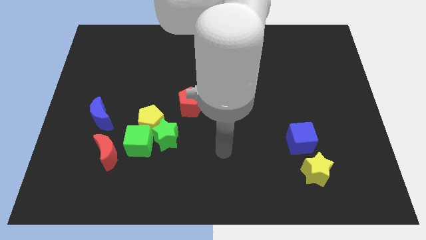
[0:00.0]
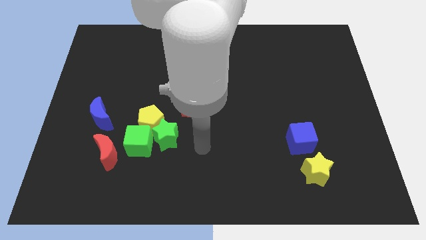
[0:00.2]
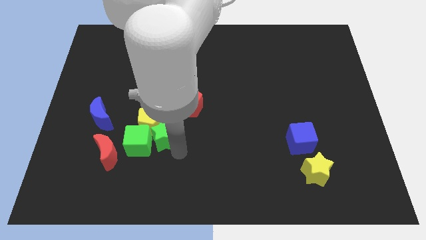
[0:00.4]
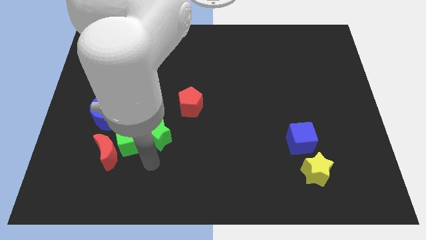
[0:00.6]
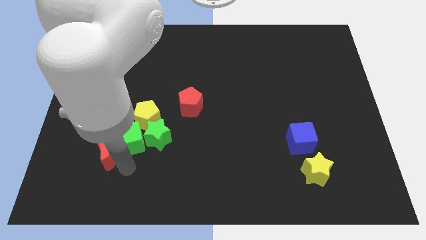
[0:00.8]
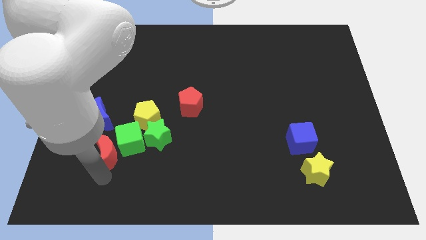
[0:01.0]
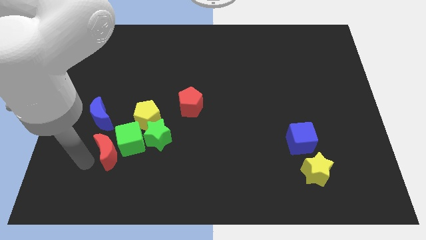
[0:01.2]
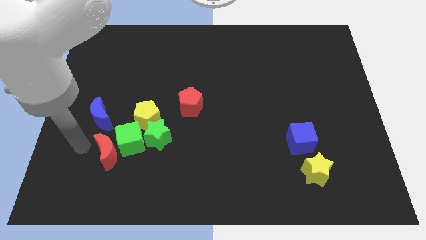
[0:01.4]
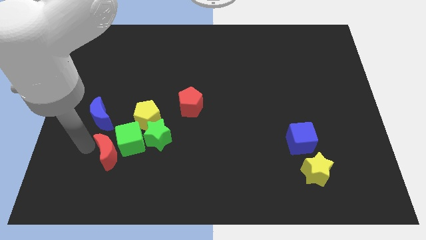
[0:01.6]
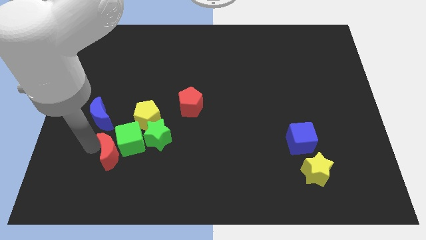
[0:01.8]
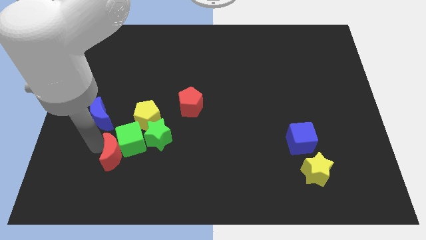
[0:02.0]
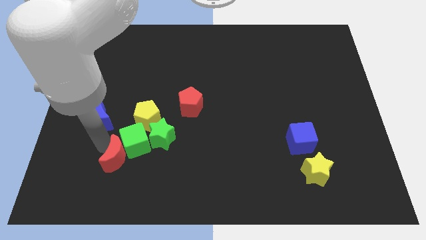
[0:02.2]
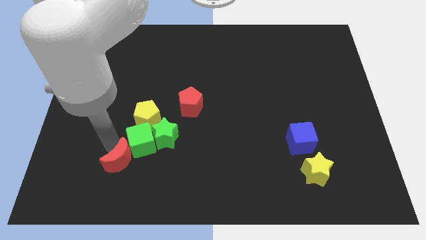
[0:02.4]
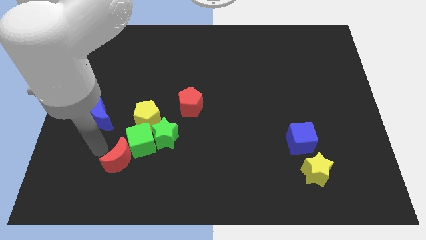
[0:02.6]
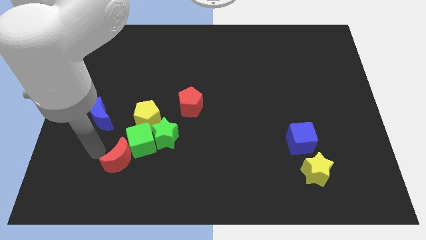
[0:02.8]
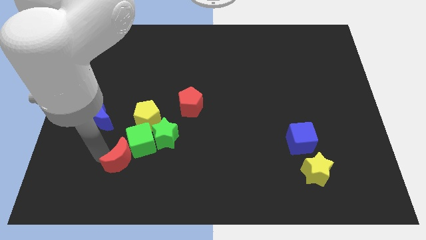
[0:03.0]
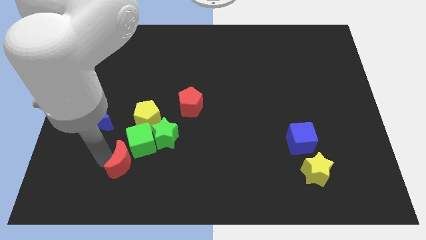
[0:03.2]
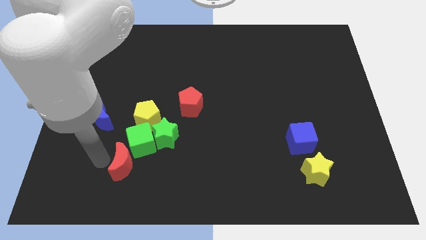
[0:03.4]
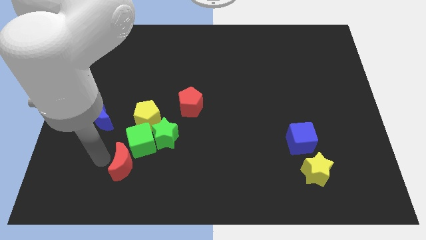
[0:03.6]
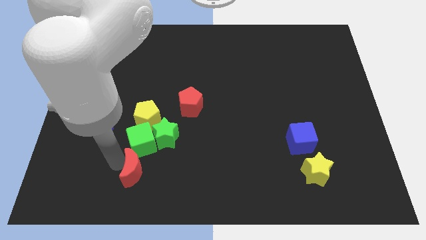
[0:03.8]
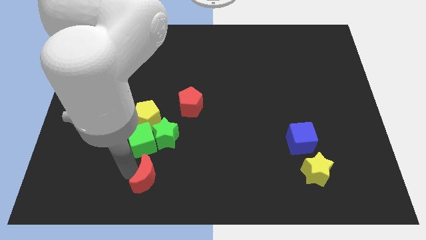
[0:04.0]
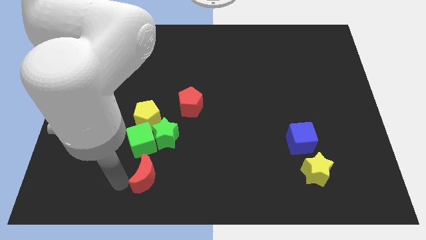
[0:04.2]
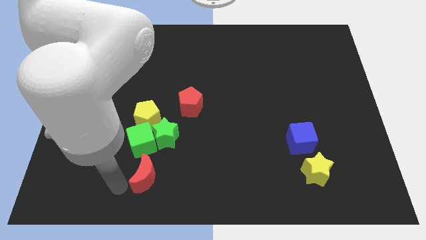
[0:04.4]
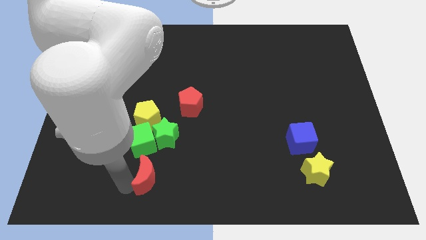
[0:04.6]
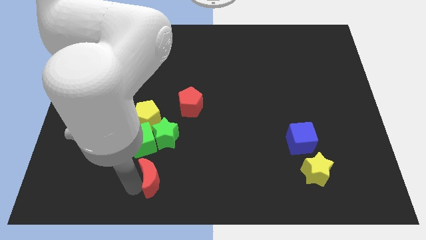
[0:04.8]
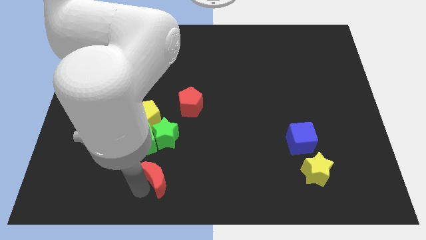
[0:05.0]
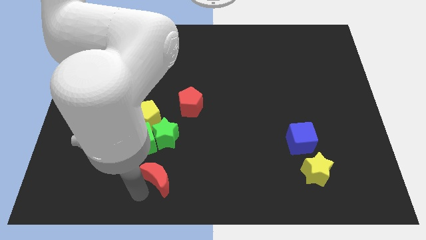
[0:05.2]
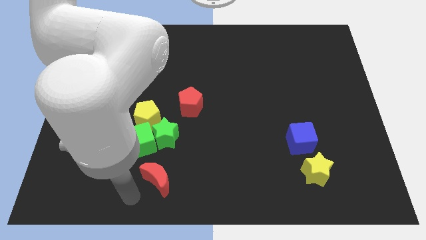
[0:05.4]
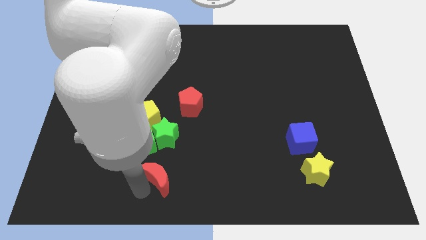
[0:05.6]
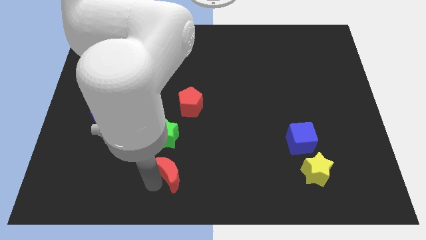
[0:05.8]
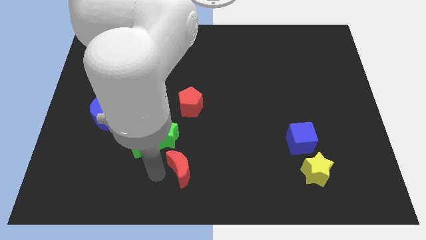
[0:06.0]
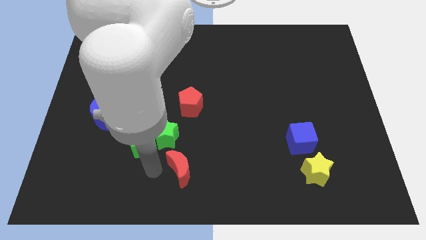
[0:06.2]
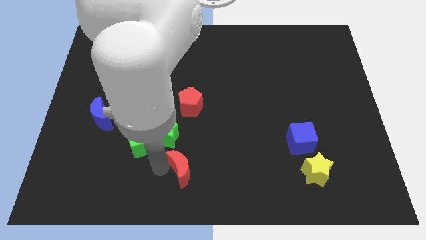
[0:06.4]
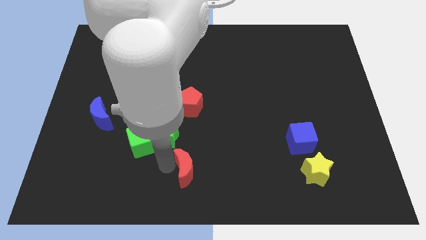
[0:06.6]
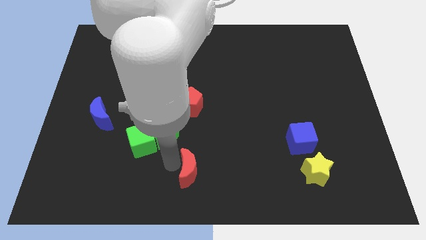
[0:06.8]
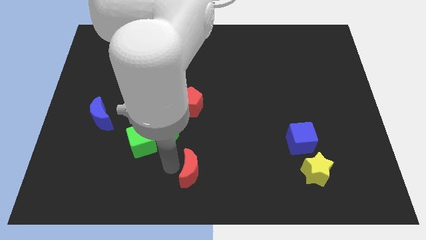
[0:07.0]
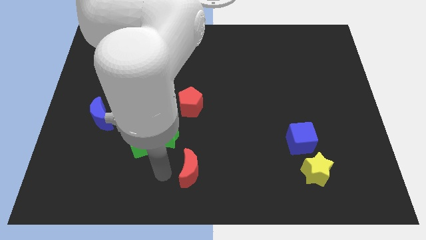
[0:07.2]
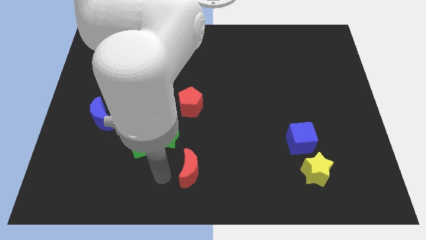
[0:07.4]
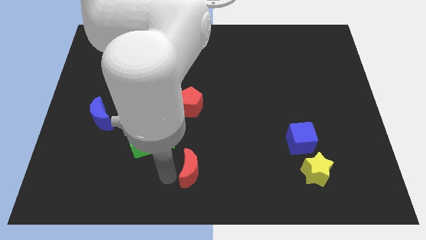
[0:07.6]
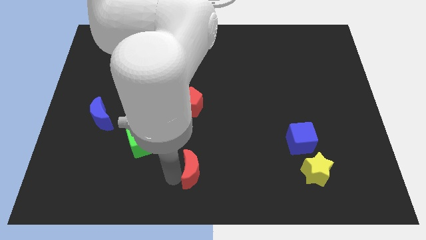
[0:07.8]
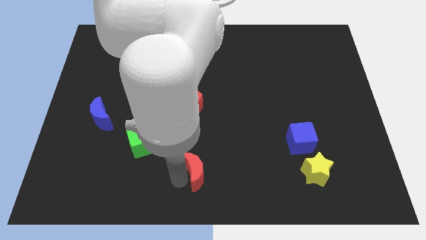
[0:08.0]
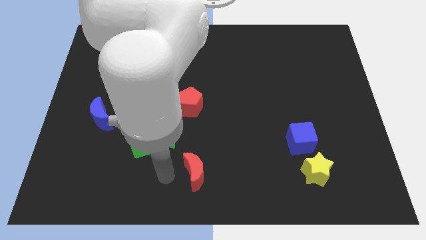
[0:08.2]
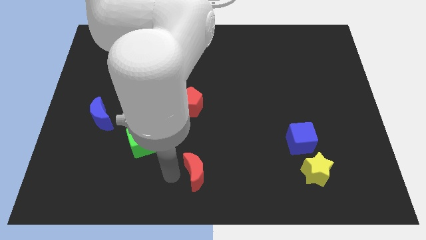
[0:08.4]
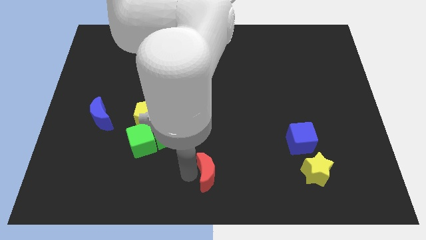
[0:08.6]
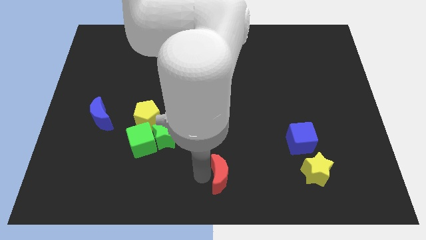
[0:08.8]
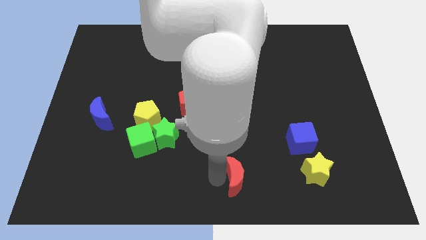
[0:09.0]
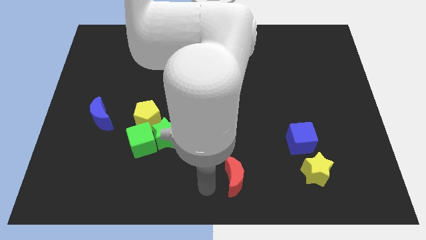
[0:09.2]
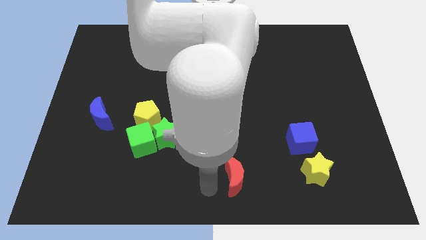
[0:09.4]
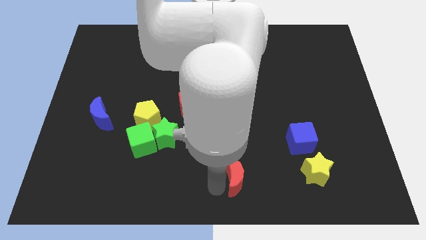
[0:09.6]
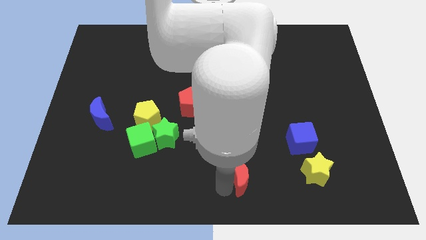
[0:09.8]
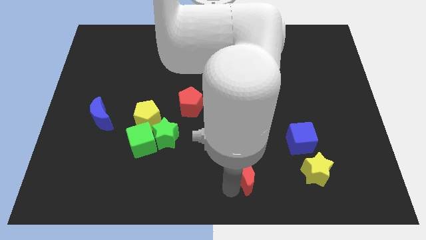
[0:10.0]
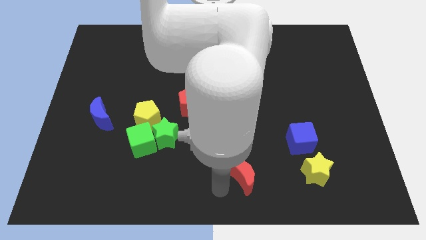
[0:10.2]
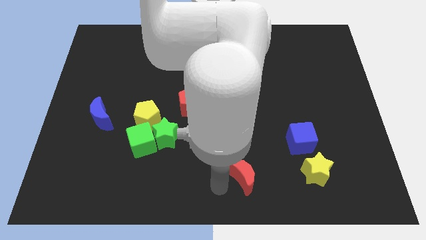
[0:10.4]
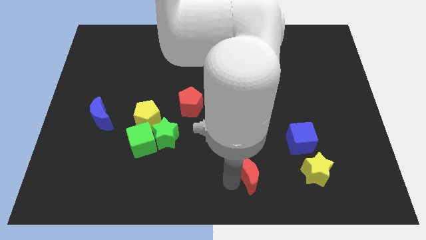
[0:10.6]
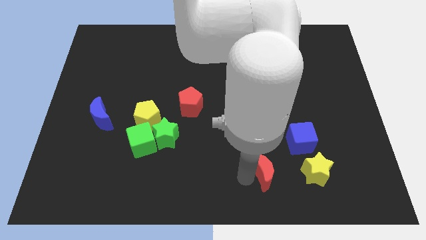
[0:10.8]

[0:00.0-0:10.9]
slide the red moon to the bottom left of the blue cube

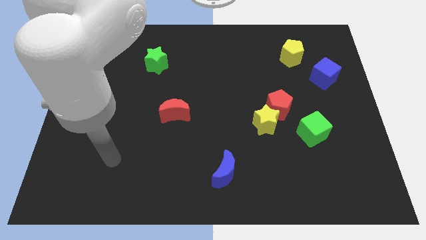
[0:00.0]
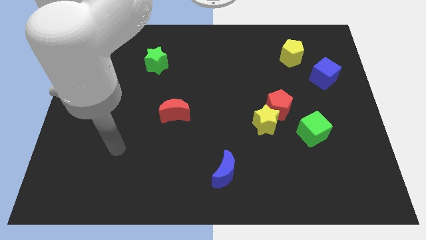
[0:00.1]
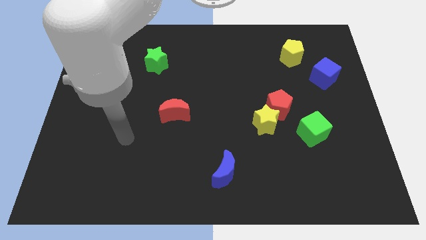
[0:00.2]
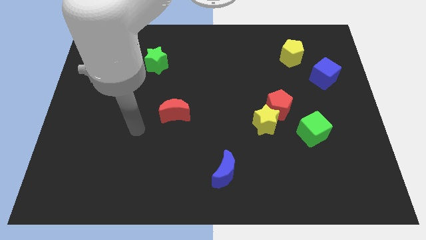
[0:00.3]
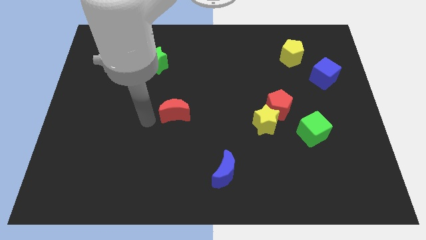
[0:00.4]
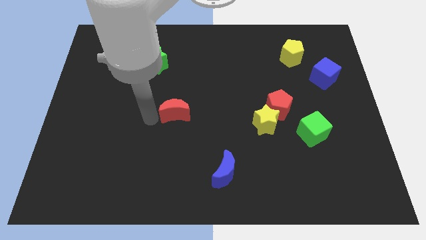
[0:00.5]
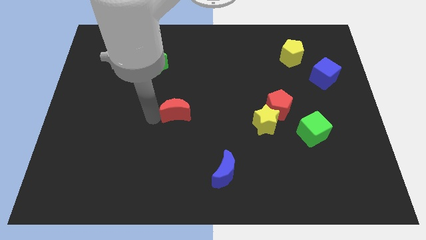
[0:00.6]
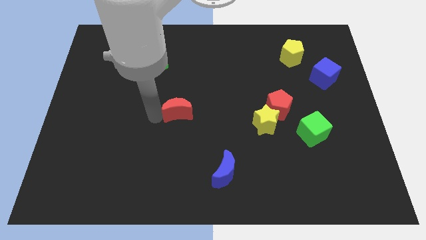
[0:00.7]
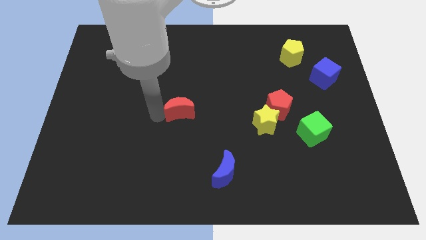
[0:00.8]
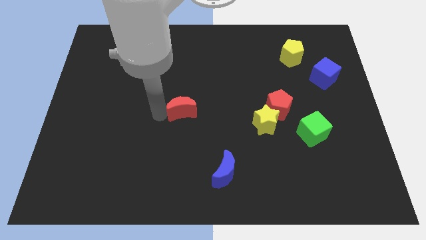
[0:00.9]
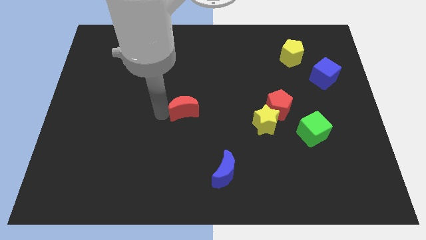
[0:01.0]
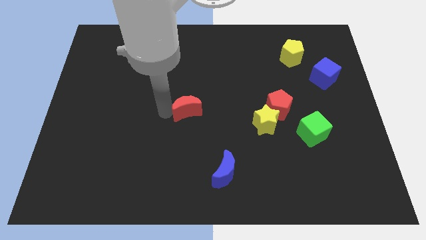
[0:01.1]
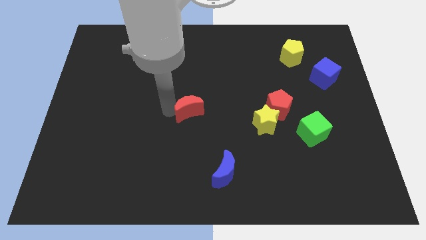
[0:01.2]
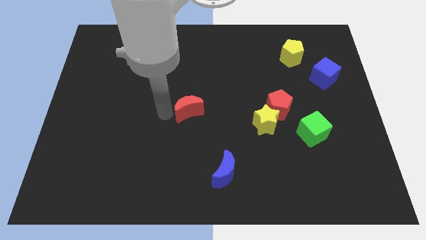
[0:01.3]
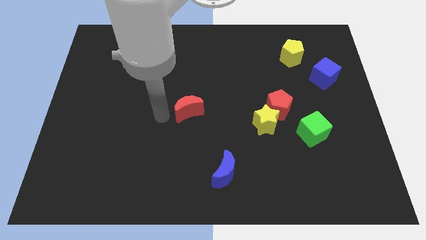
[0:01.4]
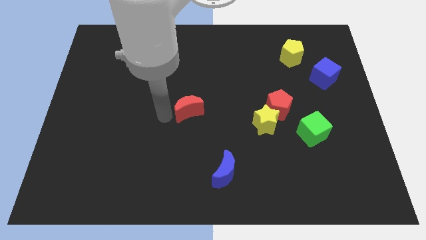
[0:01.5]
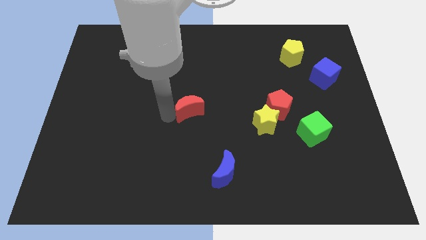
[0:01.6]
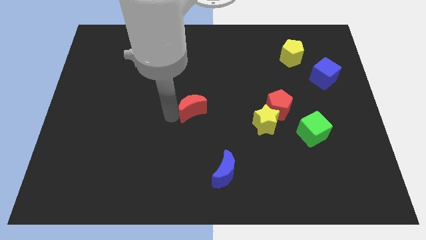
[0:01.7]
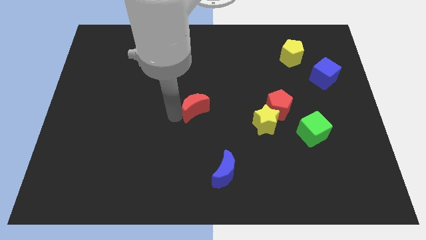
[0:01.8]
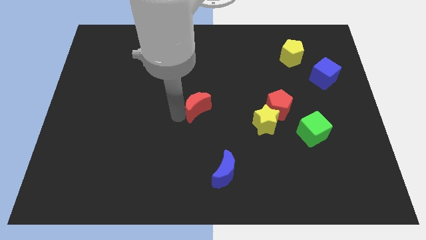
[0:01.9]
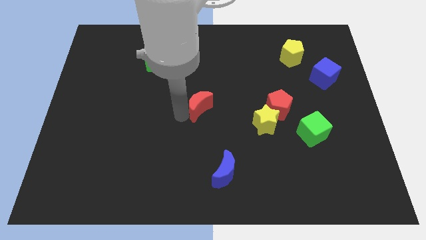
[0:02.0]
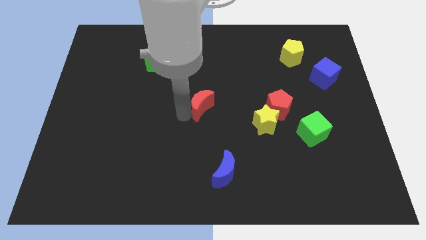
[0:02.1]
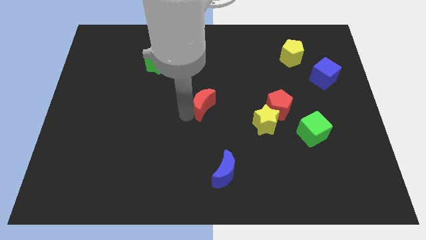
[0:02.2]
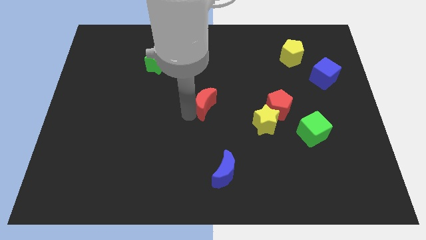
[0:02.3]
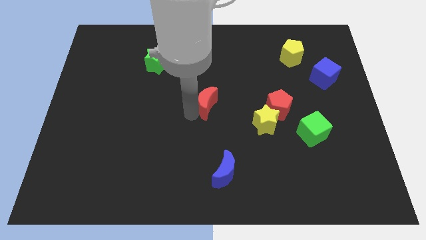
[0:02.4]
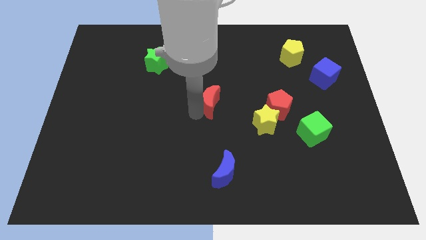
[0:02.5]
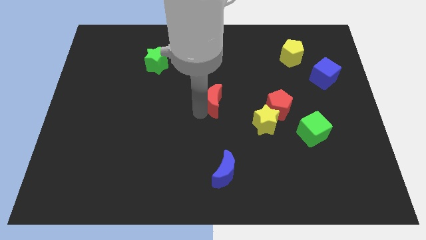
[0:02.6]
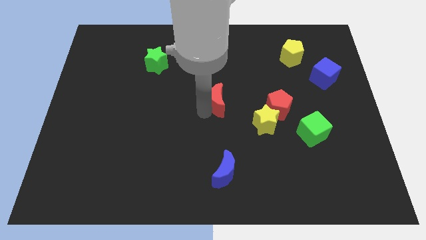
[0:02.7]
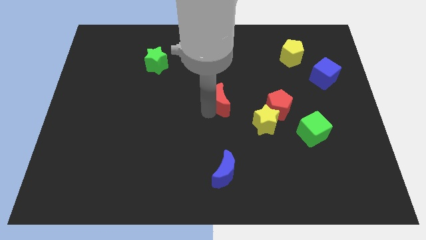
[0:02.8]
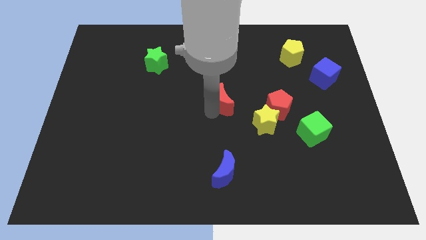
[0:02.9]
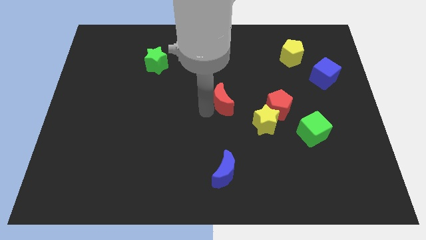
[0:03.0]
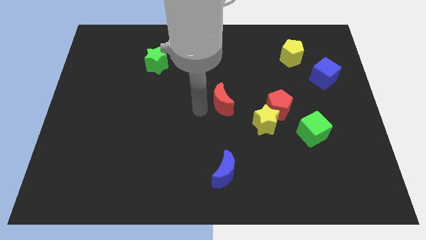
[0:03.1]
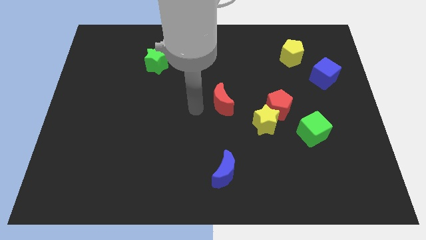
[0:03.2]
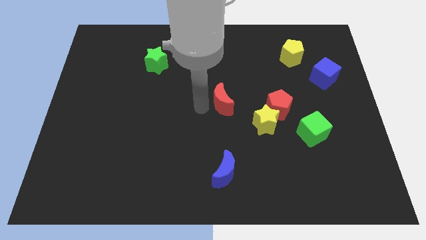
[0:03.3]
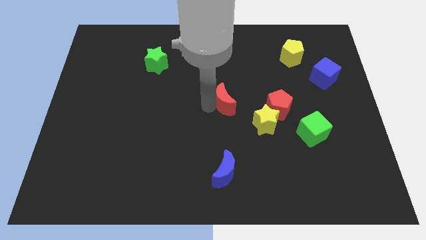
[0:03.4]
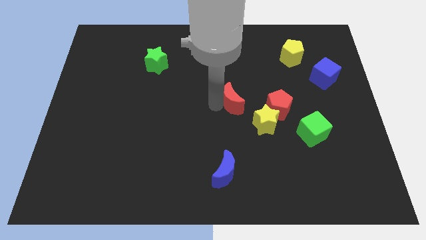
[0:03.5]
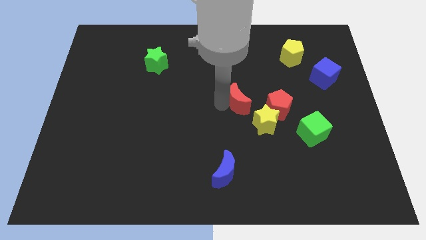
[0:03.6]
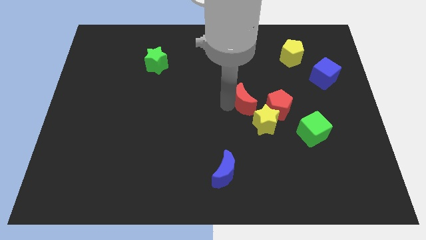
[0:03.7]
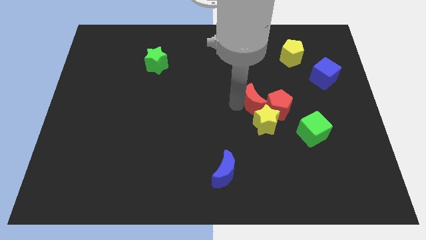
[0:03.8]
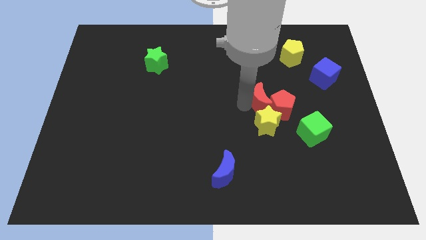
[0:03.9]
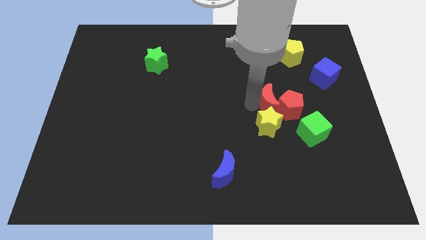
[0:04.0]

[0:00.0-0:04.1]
put the red moon diagonally up and to the right of the yellow star
